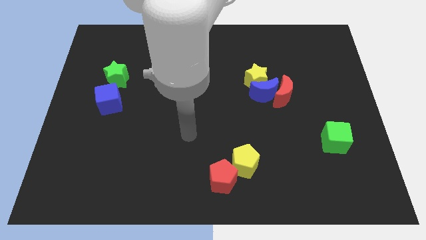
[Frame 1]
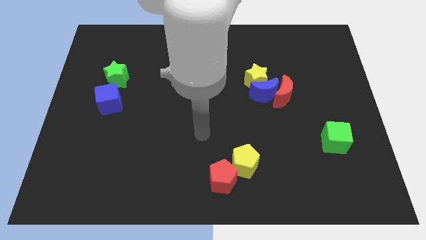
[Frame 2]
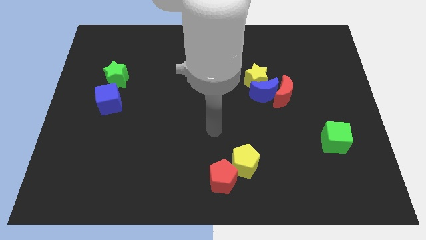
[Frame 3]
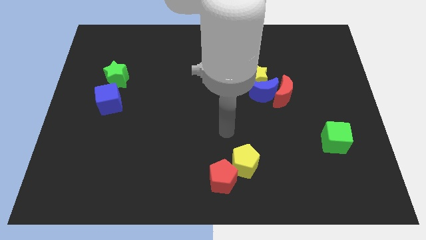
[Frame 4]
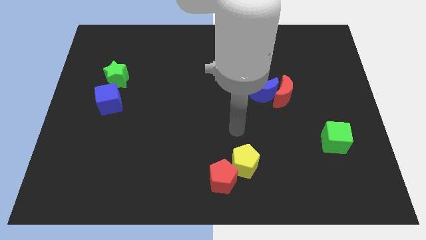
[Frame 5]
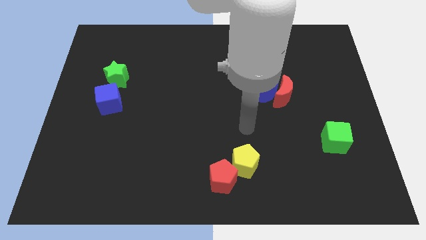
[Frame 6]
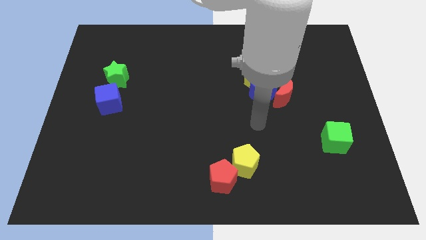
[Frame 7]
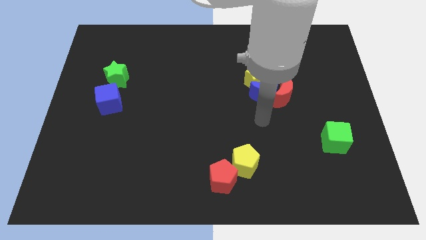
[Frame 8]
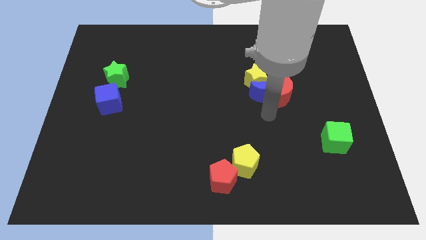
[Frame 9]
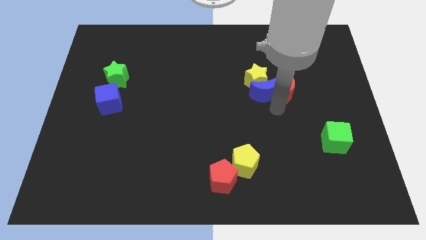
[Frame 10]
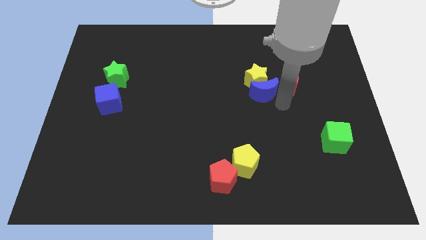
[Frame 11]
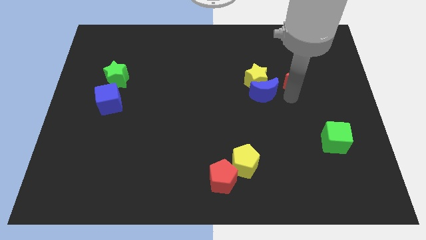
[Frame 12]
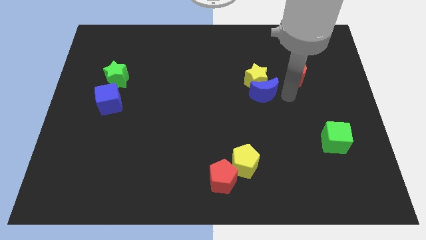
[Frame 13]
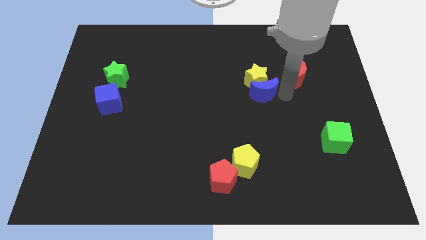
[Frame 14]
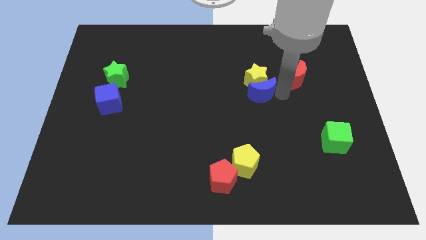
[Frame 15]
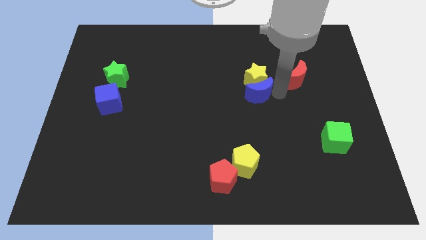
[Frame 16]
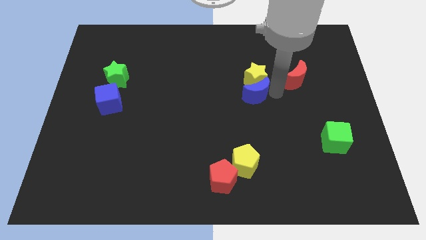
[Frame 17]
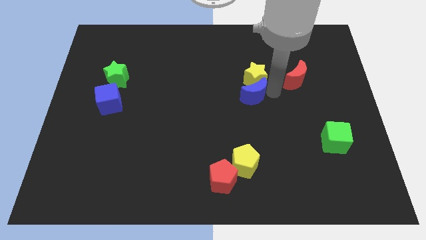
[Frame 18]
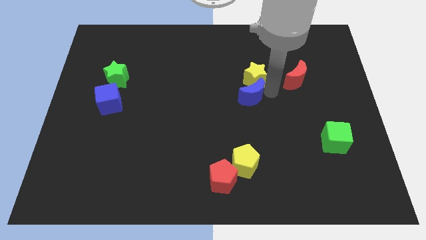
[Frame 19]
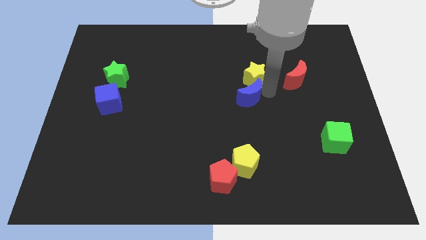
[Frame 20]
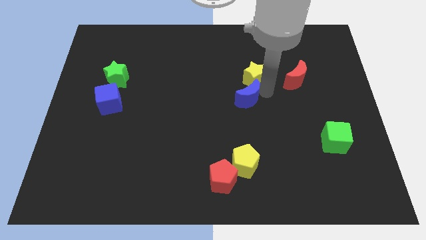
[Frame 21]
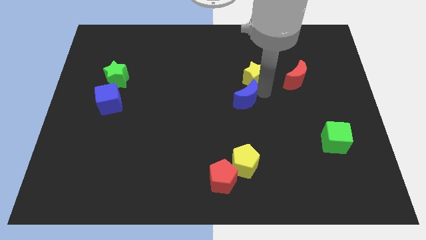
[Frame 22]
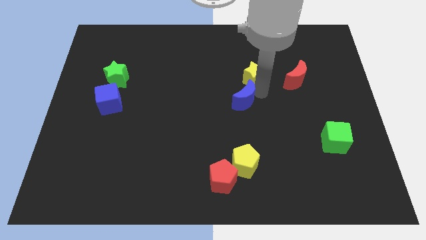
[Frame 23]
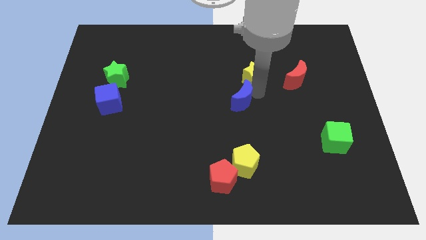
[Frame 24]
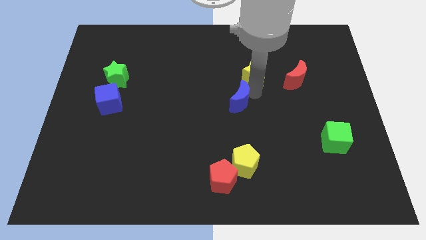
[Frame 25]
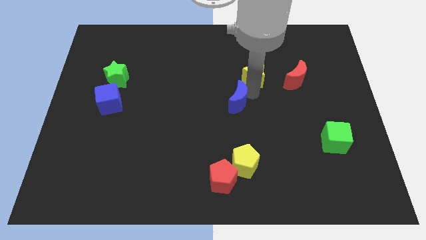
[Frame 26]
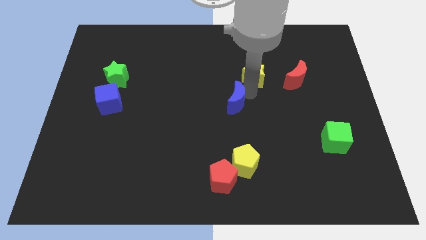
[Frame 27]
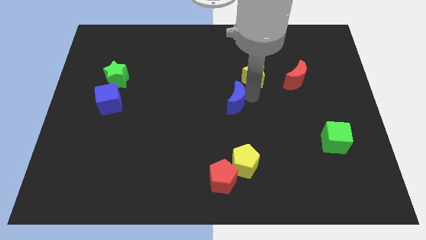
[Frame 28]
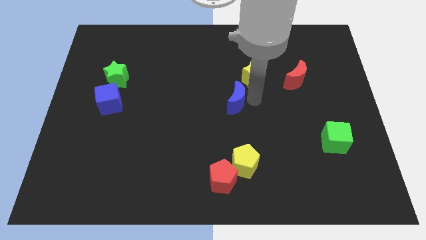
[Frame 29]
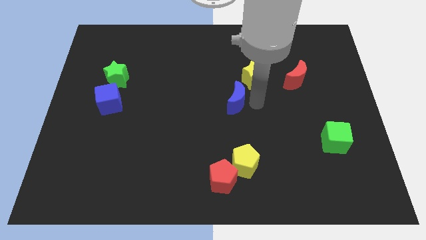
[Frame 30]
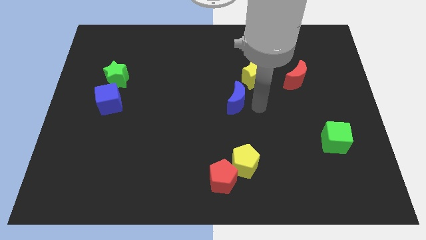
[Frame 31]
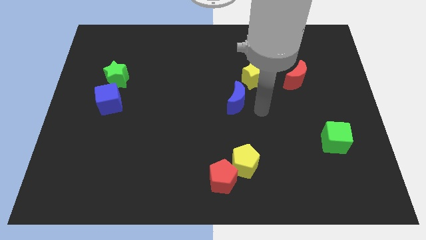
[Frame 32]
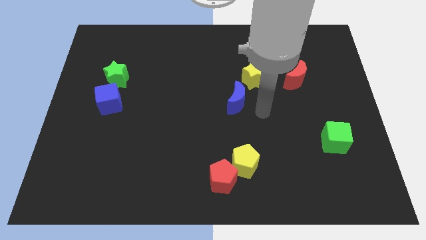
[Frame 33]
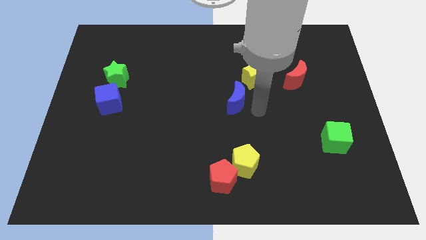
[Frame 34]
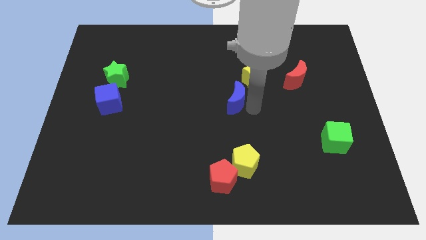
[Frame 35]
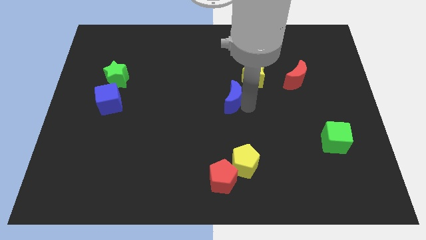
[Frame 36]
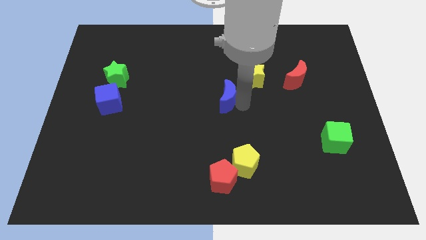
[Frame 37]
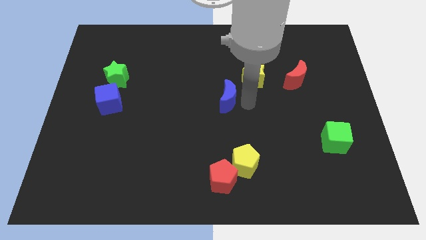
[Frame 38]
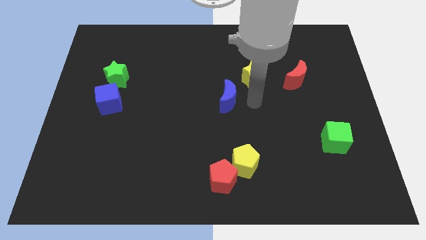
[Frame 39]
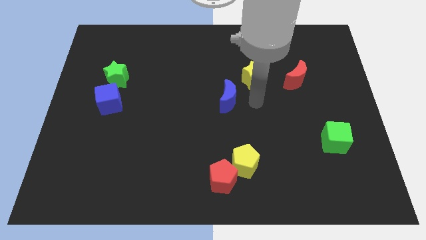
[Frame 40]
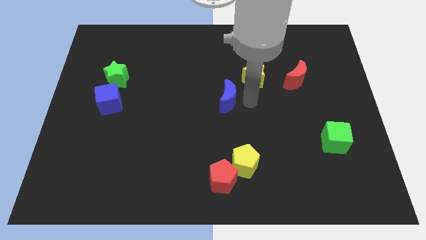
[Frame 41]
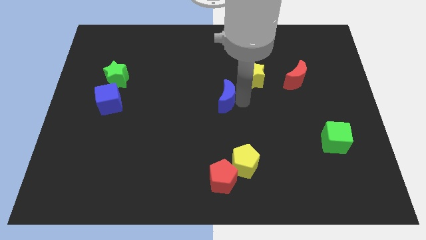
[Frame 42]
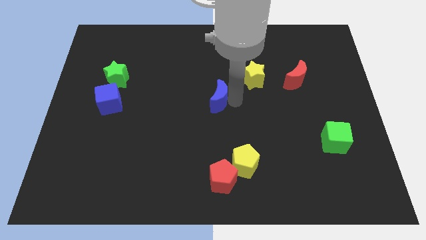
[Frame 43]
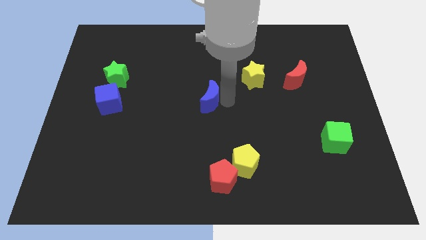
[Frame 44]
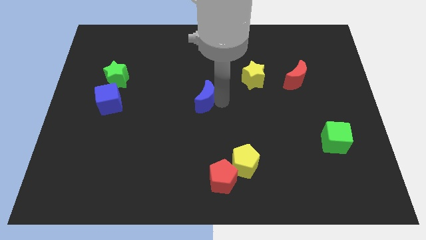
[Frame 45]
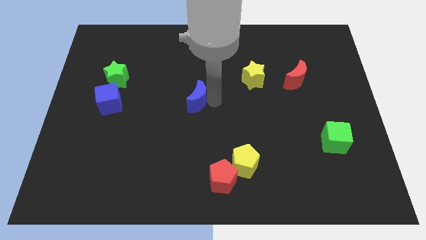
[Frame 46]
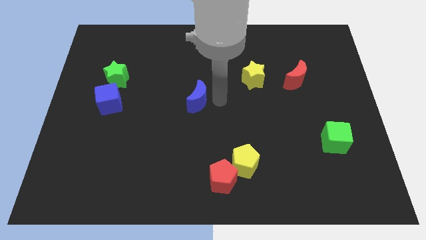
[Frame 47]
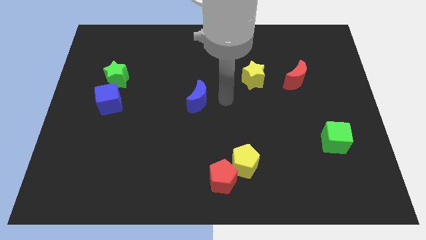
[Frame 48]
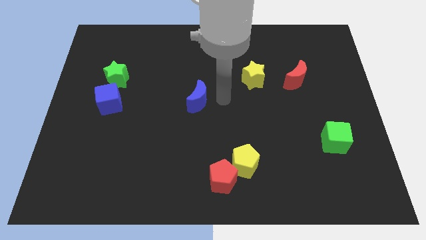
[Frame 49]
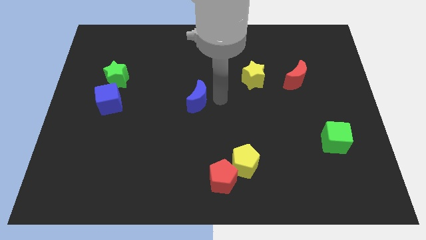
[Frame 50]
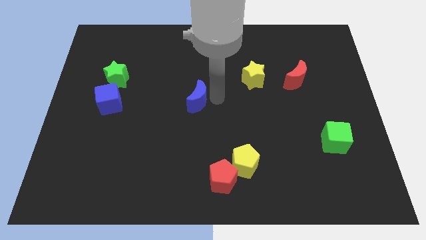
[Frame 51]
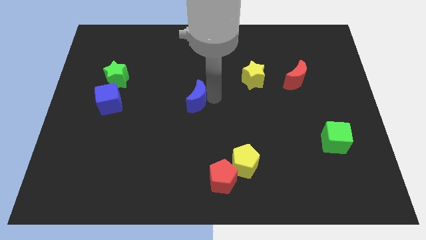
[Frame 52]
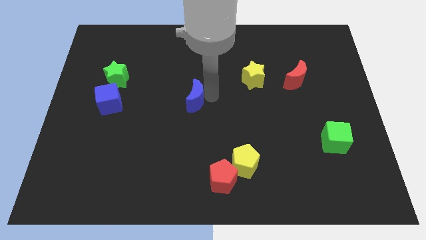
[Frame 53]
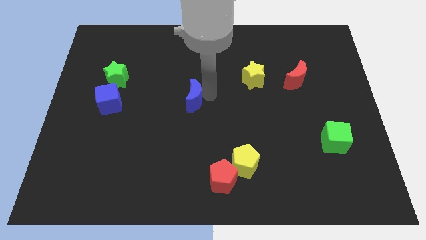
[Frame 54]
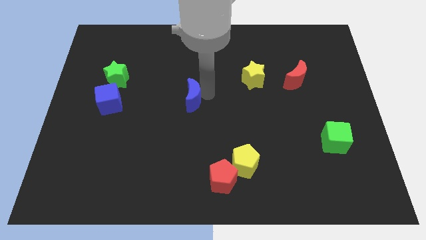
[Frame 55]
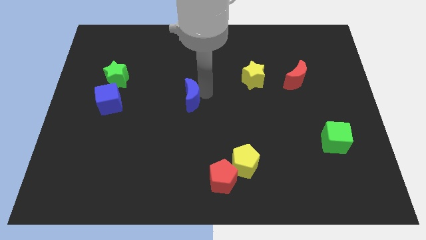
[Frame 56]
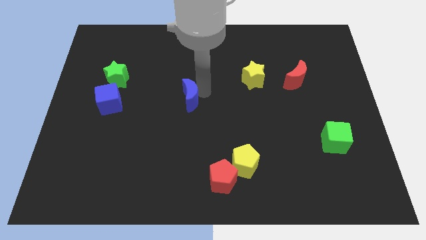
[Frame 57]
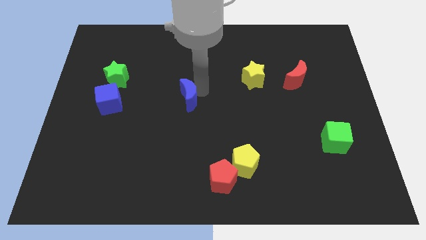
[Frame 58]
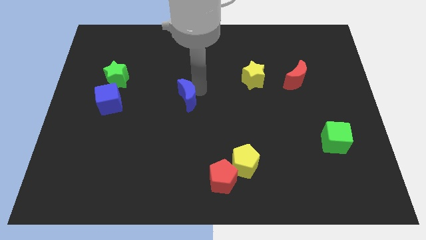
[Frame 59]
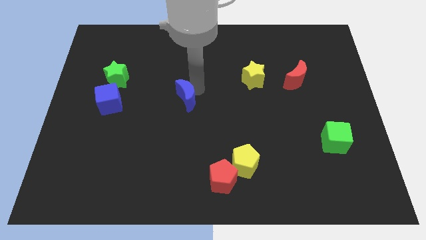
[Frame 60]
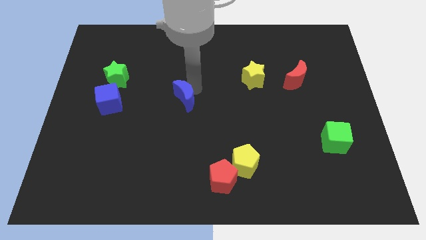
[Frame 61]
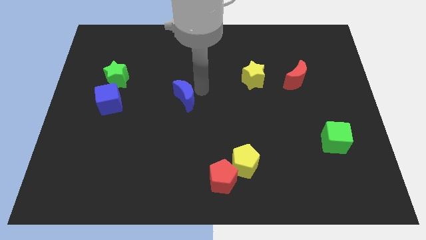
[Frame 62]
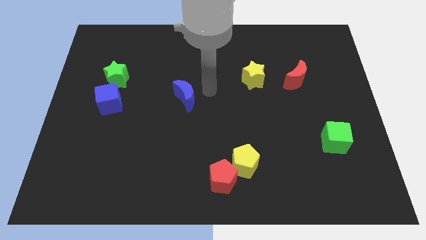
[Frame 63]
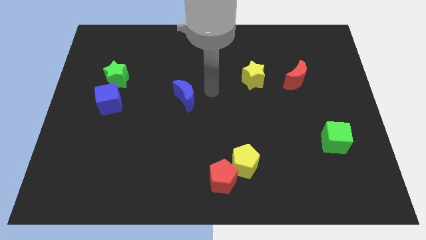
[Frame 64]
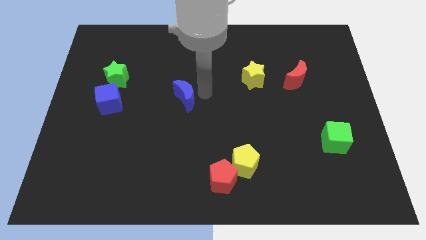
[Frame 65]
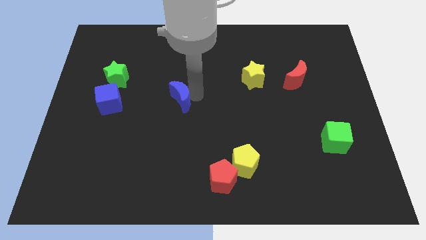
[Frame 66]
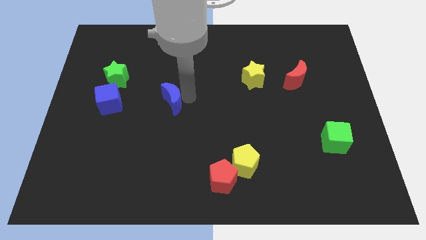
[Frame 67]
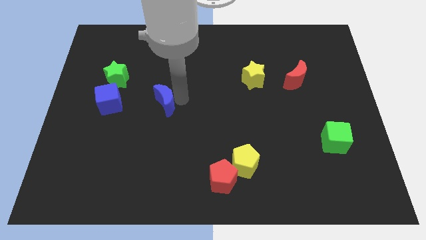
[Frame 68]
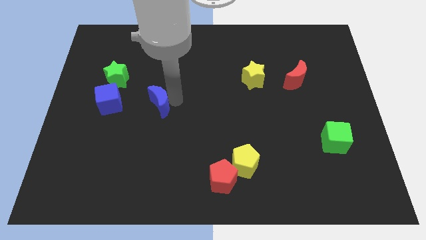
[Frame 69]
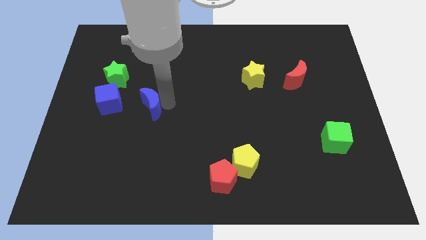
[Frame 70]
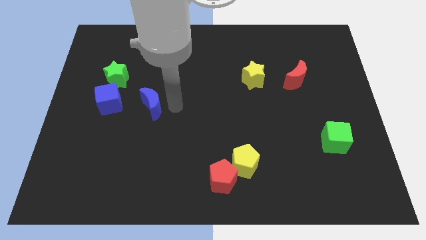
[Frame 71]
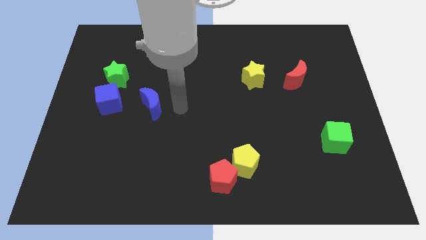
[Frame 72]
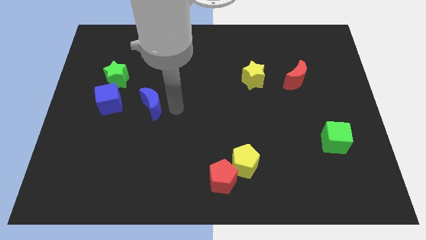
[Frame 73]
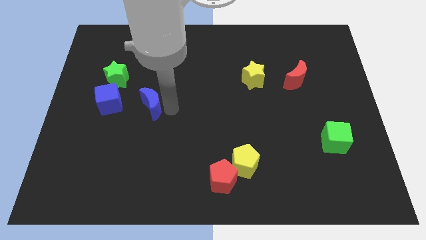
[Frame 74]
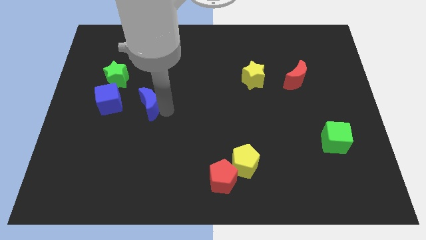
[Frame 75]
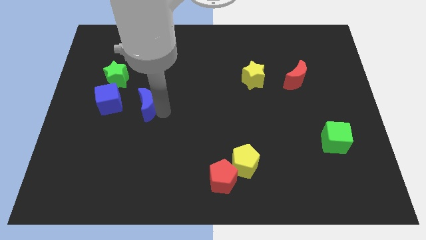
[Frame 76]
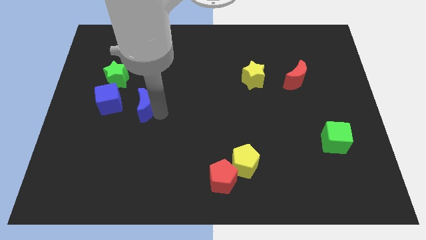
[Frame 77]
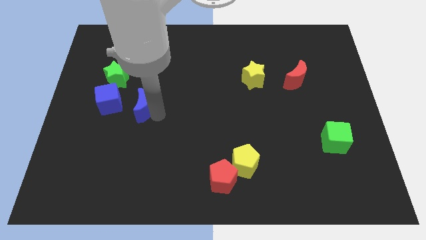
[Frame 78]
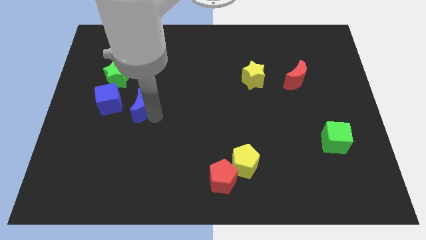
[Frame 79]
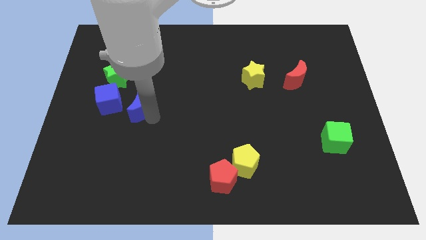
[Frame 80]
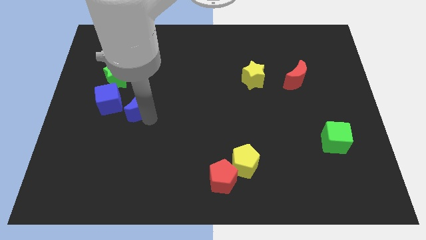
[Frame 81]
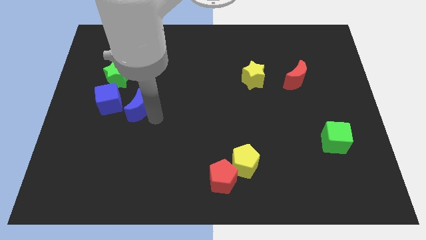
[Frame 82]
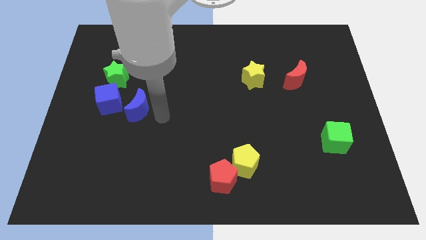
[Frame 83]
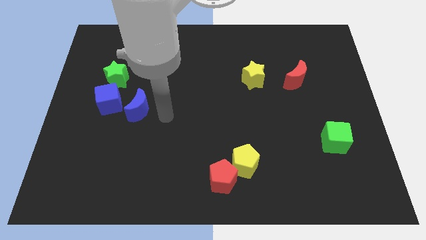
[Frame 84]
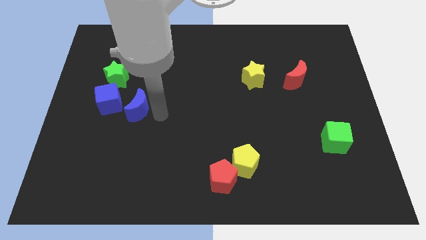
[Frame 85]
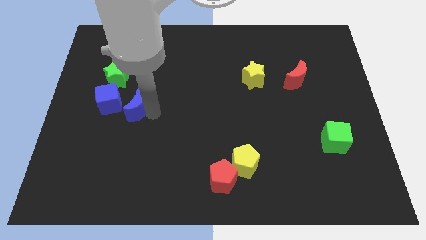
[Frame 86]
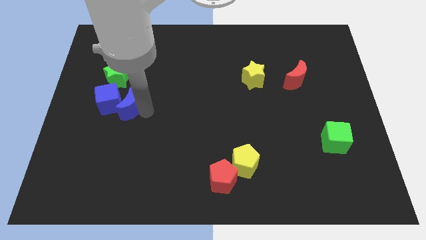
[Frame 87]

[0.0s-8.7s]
put the blue moon to the blue cube
